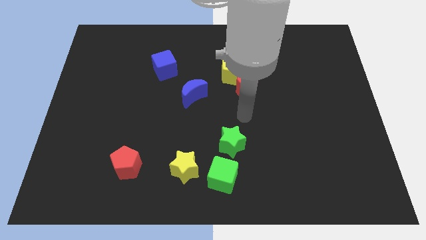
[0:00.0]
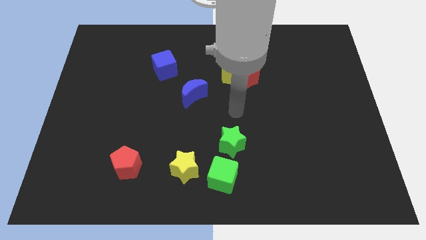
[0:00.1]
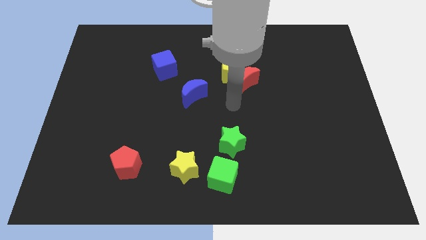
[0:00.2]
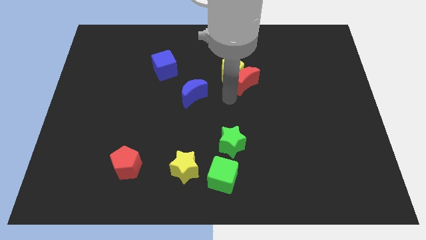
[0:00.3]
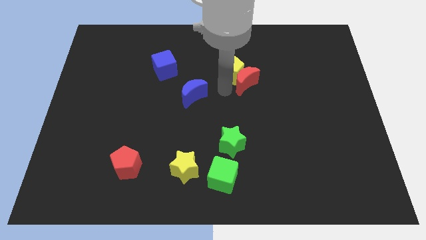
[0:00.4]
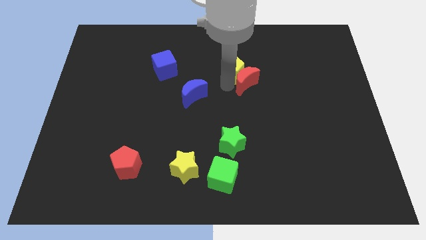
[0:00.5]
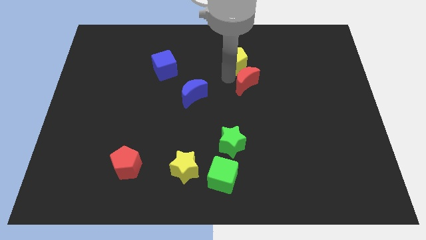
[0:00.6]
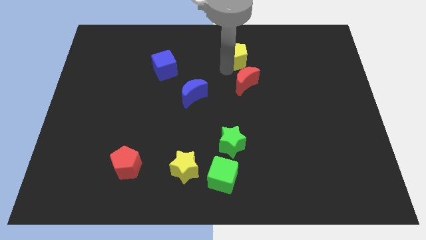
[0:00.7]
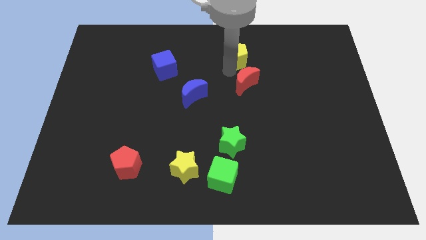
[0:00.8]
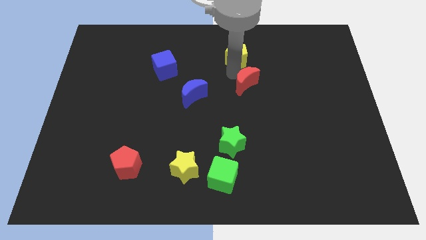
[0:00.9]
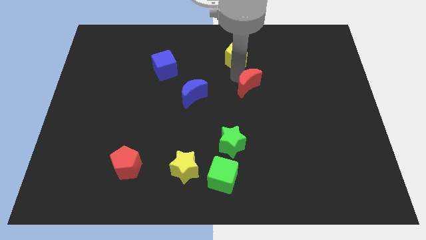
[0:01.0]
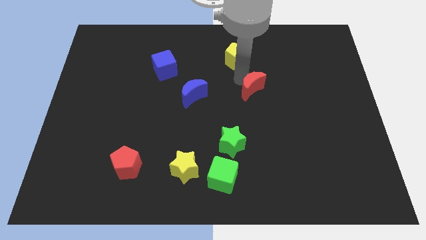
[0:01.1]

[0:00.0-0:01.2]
separate the red moon from the yellow pentagon

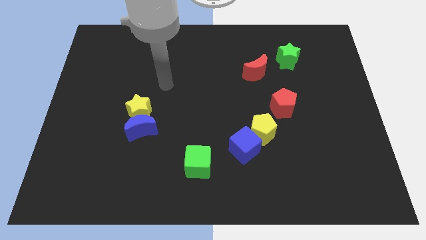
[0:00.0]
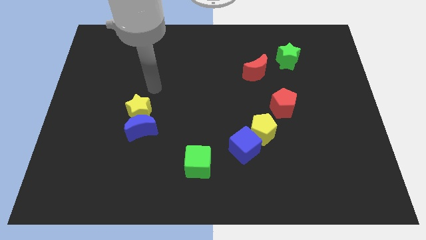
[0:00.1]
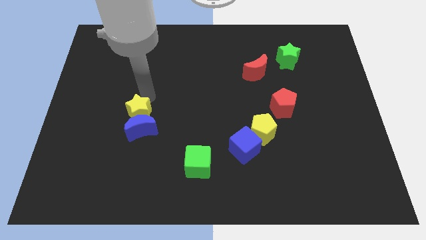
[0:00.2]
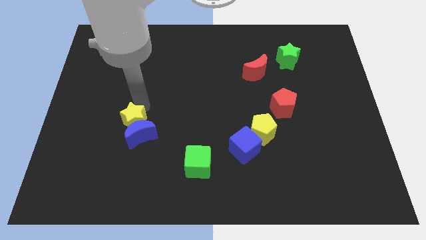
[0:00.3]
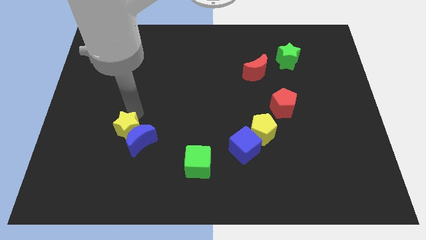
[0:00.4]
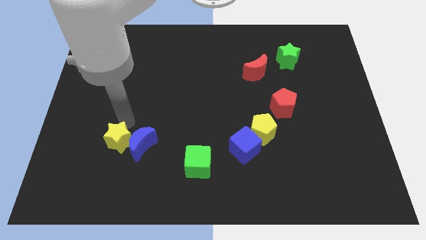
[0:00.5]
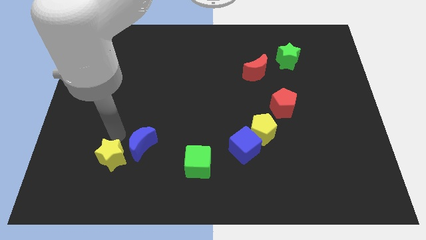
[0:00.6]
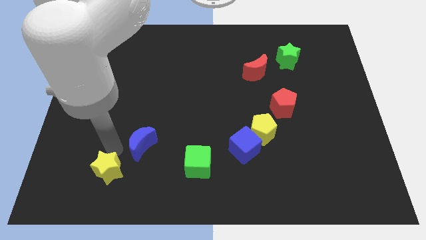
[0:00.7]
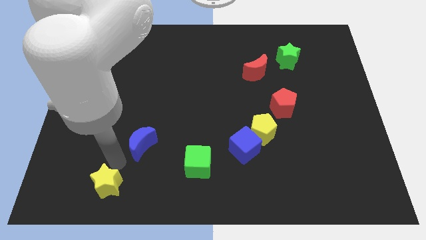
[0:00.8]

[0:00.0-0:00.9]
pull the blue moon apart from the yellow star

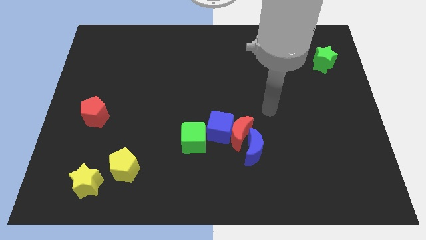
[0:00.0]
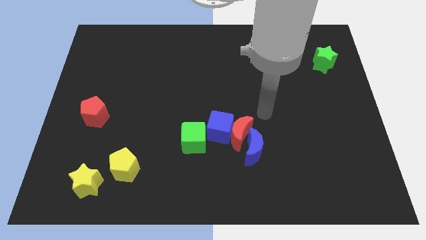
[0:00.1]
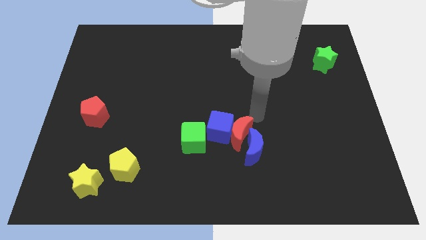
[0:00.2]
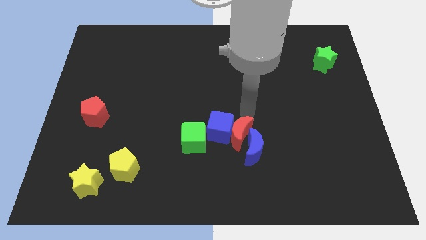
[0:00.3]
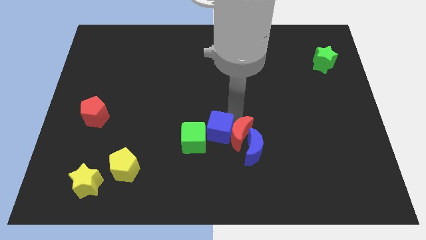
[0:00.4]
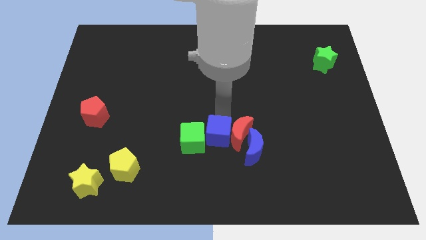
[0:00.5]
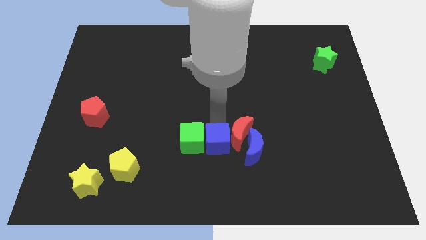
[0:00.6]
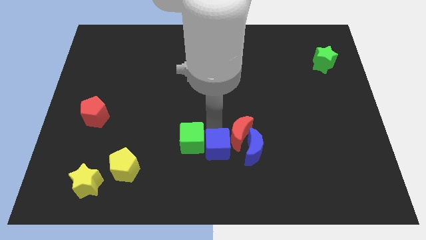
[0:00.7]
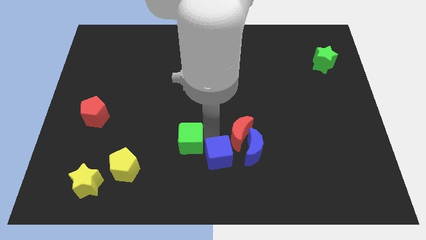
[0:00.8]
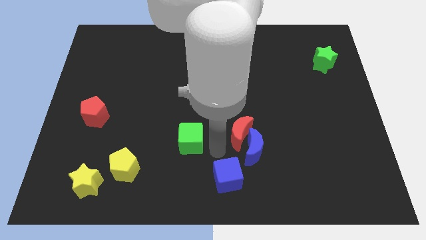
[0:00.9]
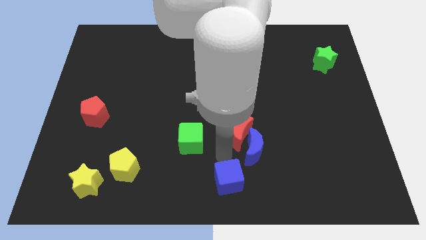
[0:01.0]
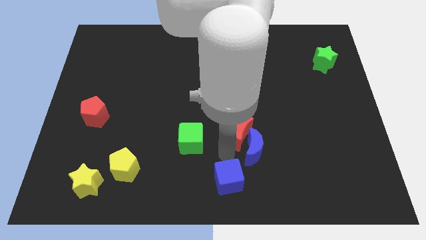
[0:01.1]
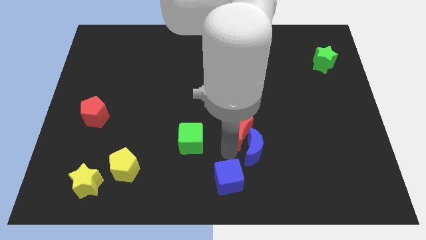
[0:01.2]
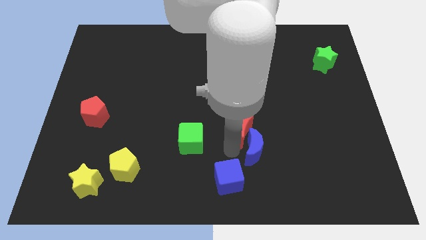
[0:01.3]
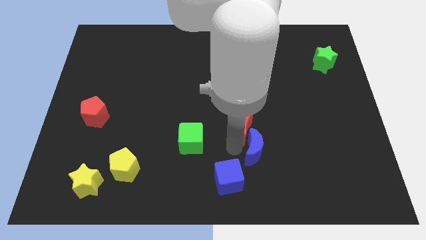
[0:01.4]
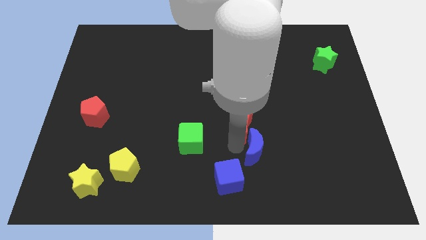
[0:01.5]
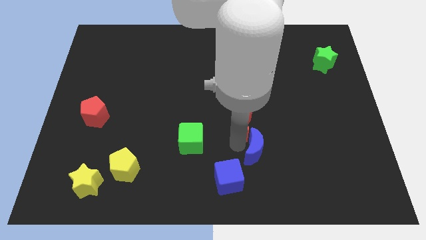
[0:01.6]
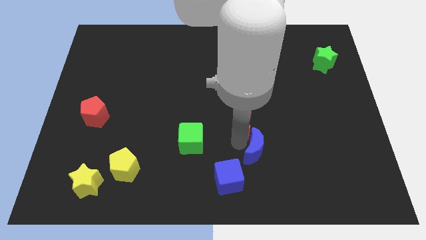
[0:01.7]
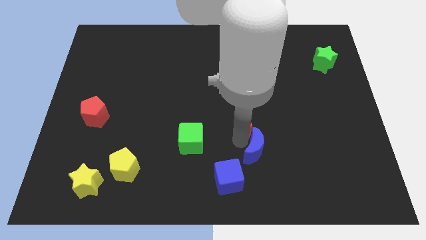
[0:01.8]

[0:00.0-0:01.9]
separate the red moon from the blue cube, blue moon, and green cube

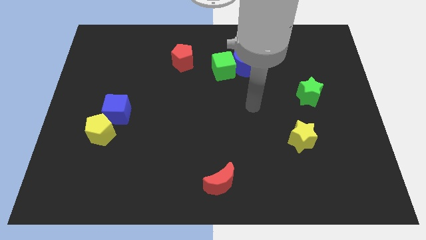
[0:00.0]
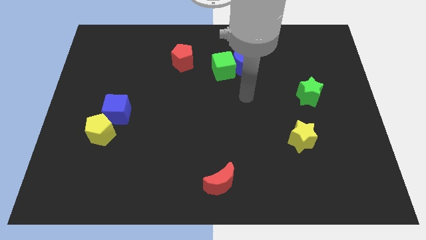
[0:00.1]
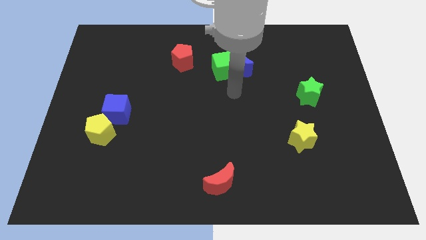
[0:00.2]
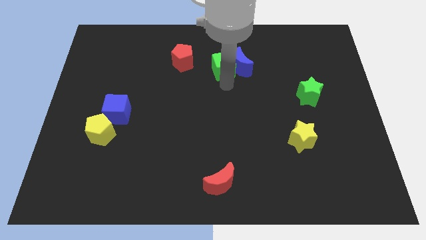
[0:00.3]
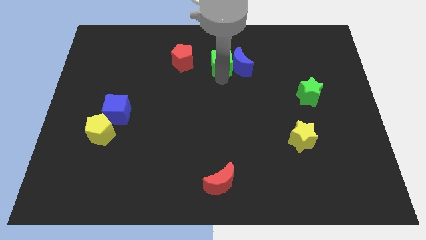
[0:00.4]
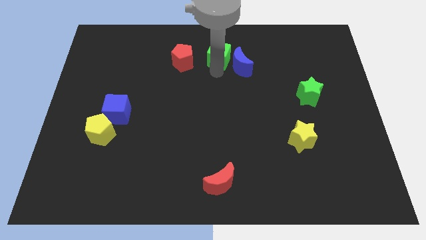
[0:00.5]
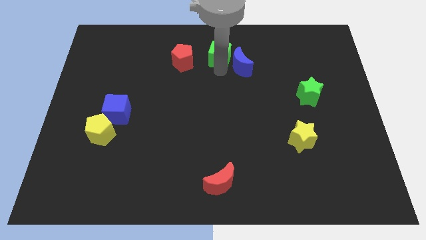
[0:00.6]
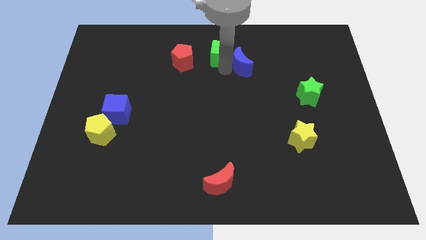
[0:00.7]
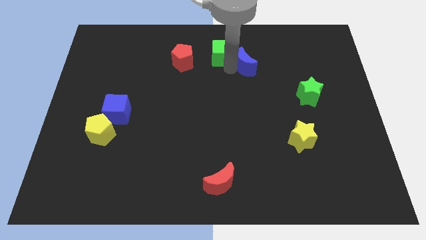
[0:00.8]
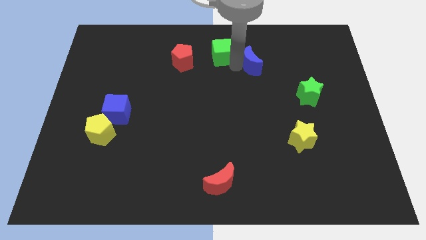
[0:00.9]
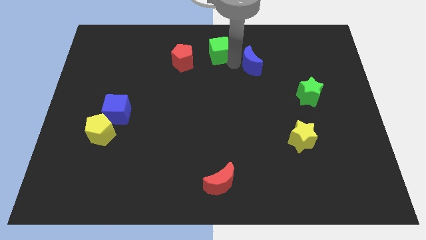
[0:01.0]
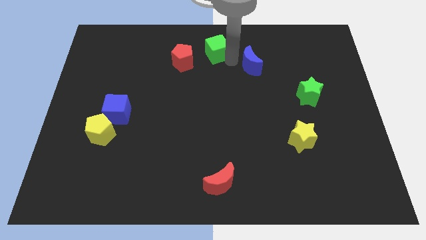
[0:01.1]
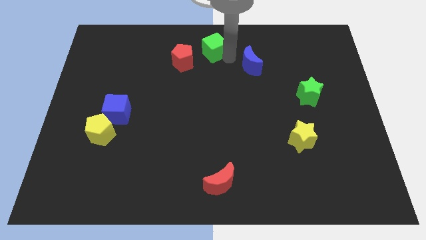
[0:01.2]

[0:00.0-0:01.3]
move the blue moon away from the green cube

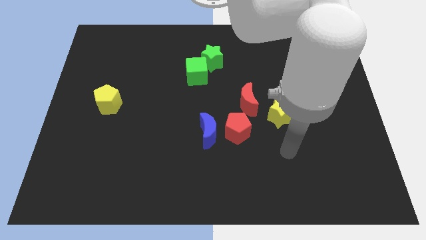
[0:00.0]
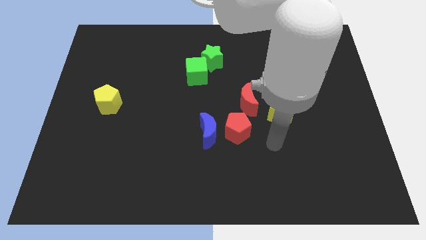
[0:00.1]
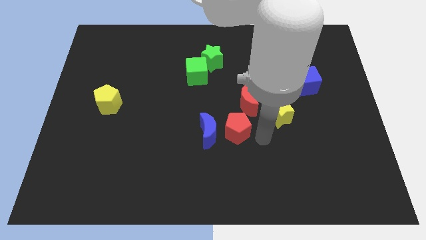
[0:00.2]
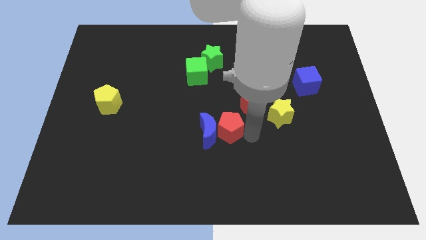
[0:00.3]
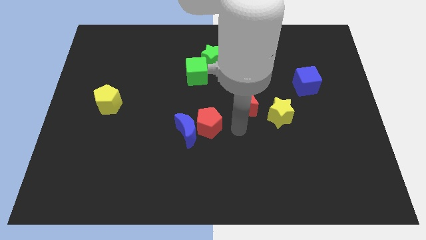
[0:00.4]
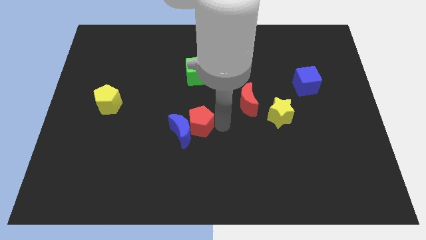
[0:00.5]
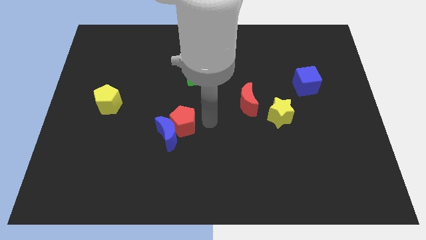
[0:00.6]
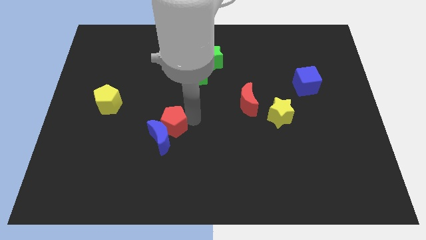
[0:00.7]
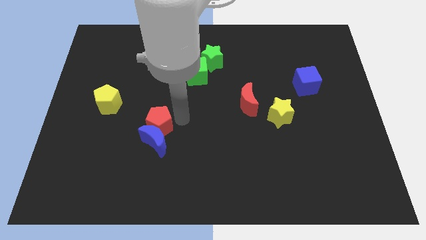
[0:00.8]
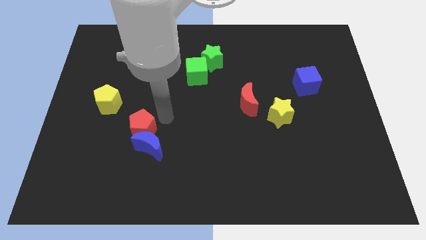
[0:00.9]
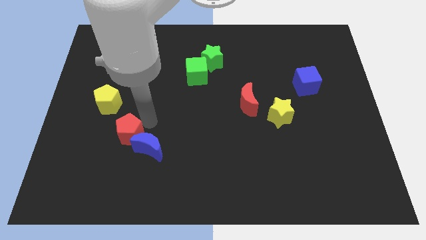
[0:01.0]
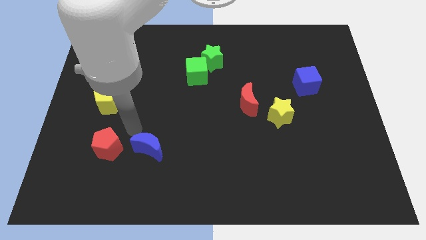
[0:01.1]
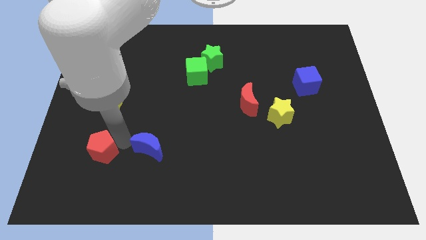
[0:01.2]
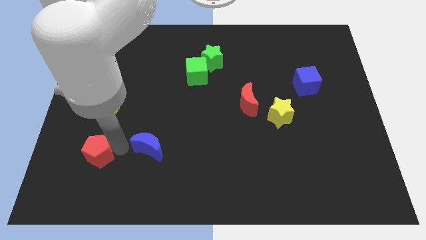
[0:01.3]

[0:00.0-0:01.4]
separate the blue moon from the red pentagon

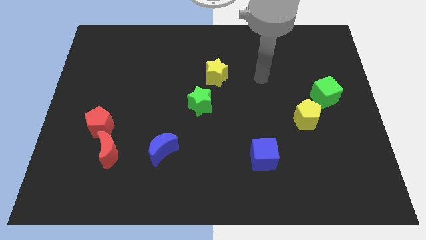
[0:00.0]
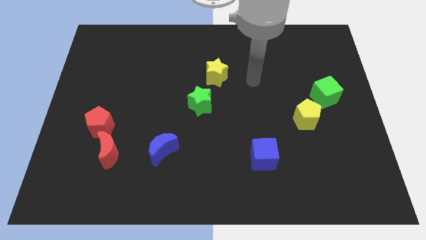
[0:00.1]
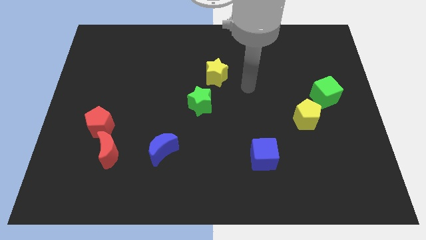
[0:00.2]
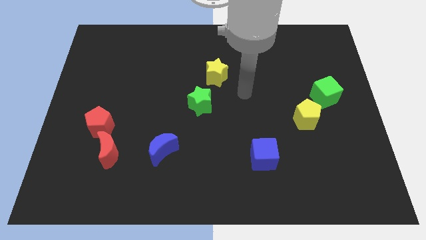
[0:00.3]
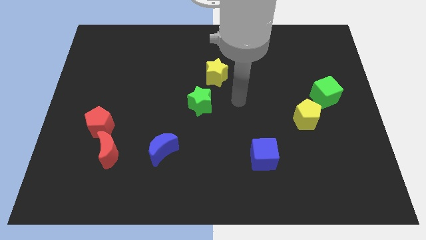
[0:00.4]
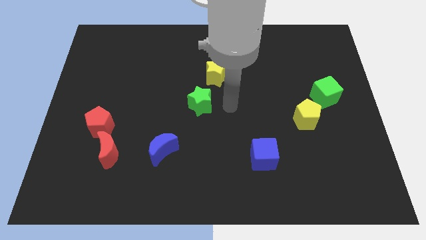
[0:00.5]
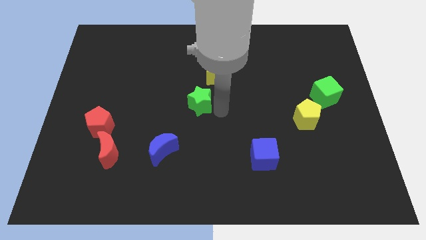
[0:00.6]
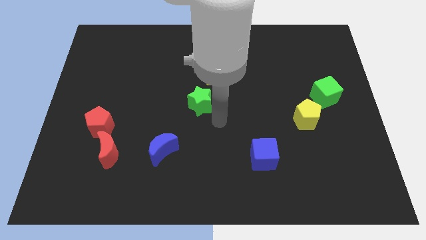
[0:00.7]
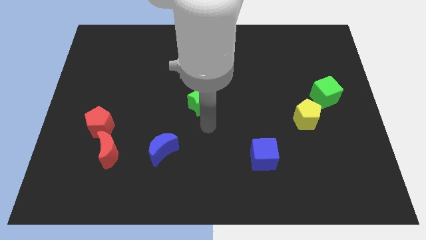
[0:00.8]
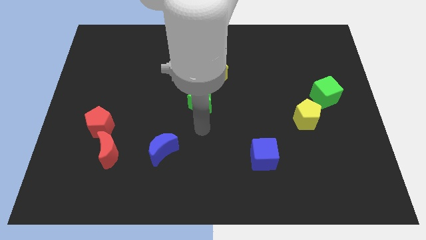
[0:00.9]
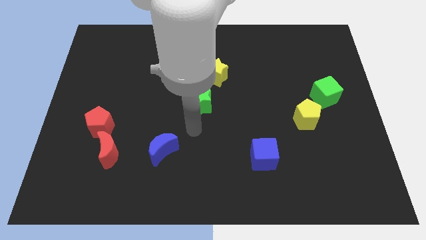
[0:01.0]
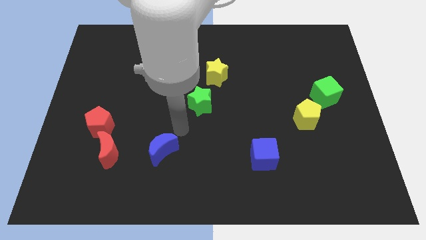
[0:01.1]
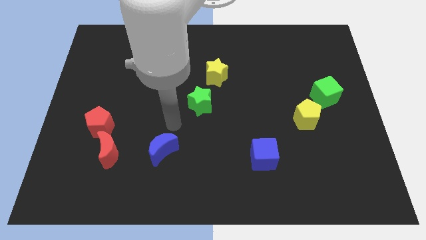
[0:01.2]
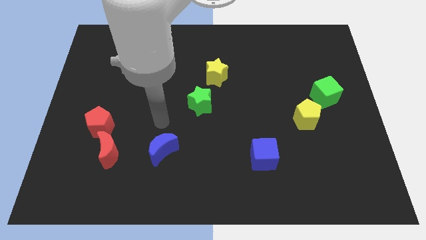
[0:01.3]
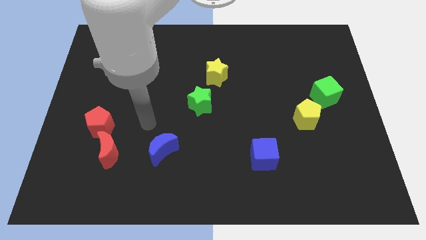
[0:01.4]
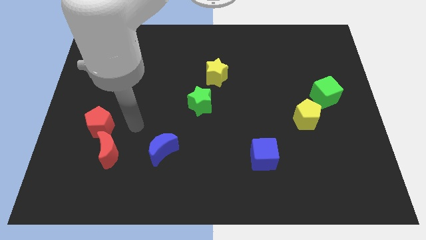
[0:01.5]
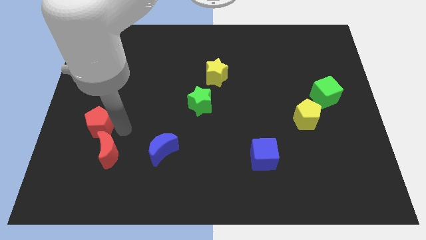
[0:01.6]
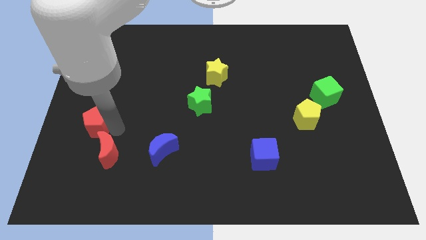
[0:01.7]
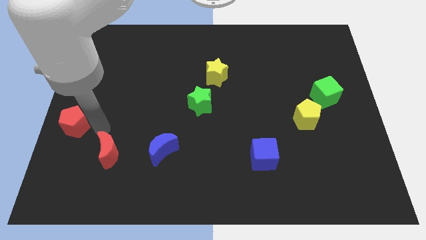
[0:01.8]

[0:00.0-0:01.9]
pull the red moon apart from the red pentagon

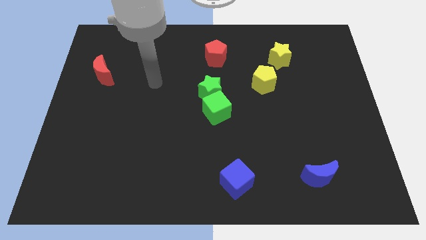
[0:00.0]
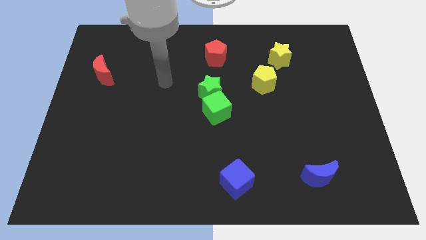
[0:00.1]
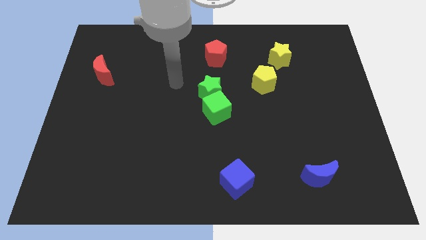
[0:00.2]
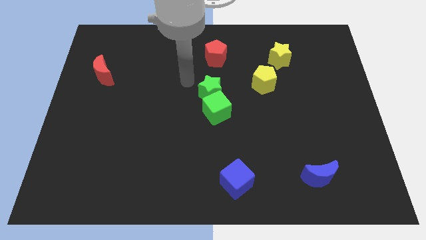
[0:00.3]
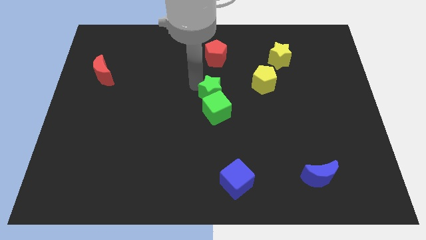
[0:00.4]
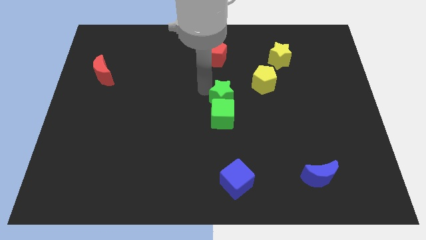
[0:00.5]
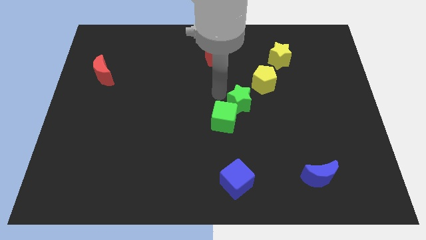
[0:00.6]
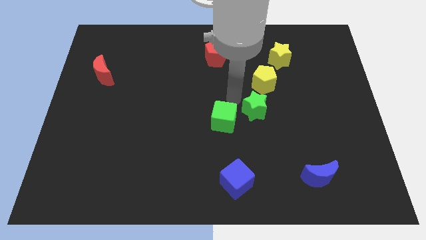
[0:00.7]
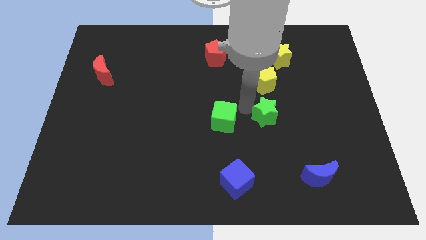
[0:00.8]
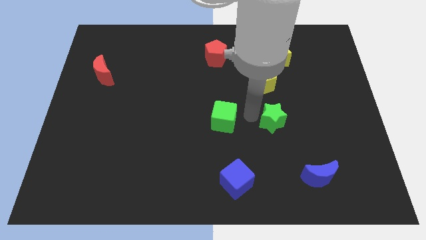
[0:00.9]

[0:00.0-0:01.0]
pull the green cube apart from the green star
